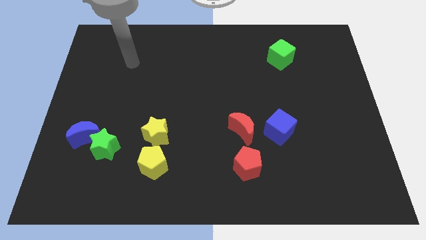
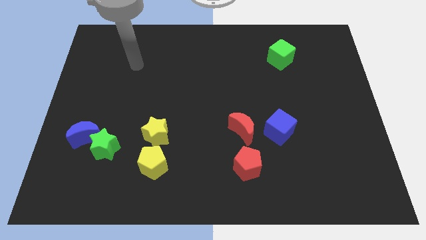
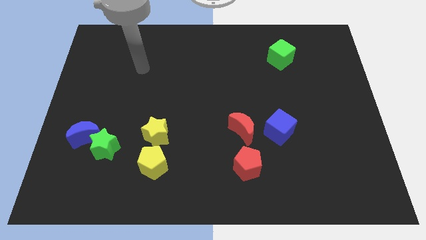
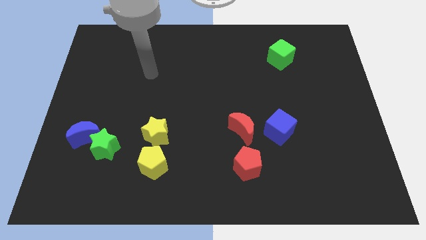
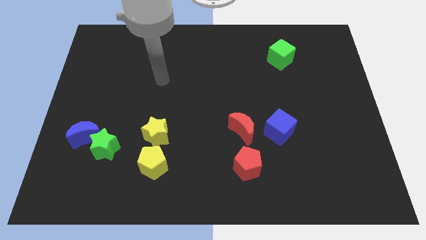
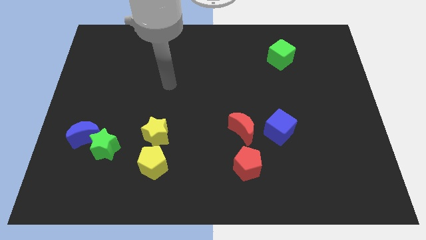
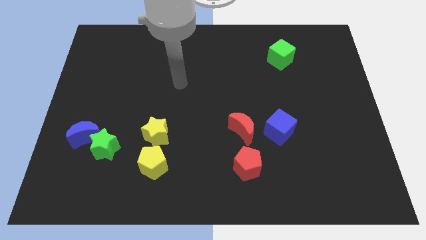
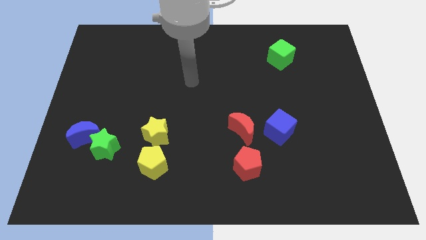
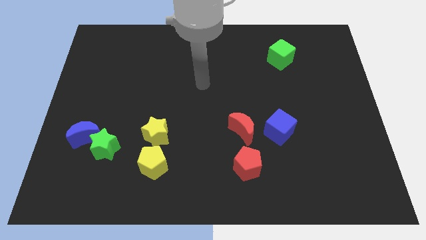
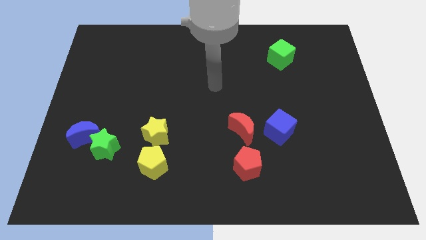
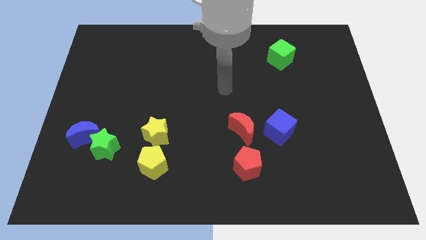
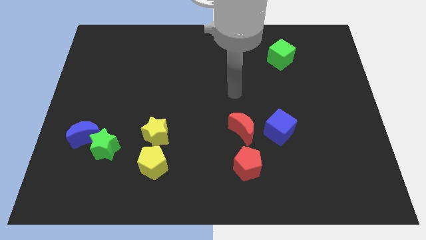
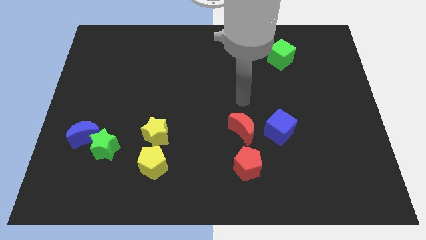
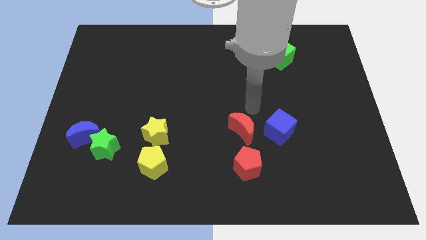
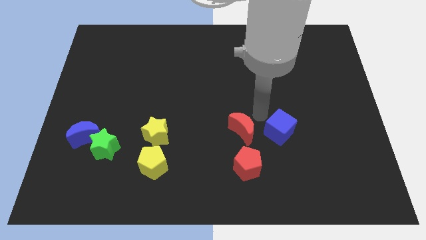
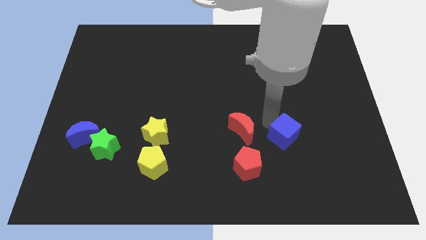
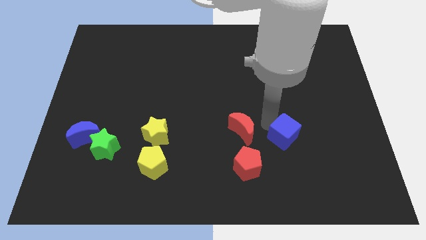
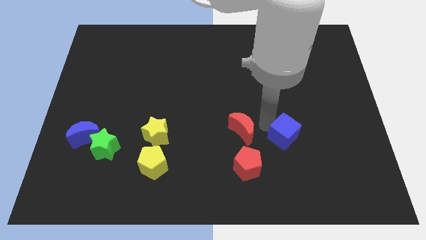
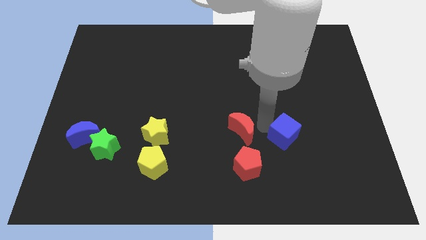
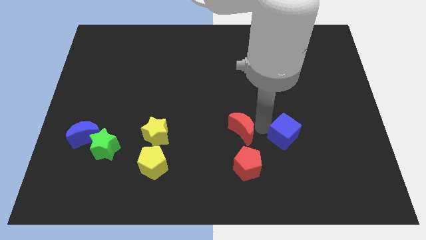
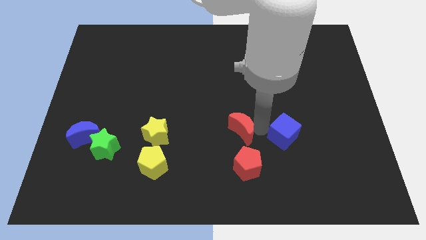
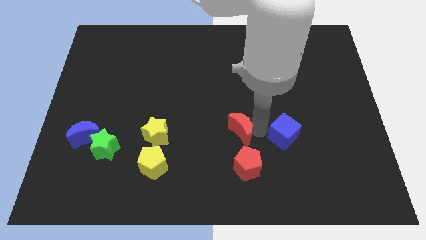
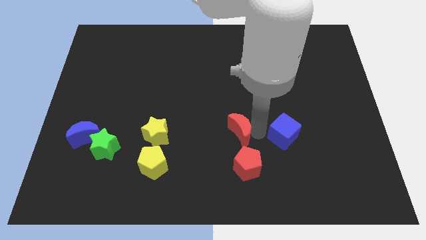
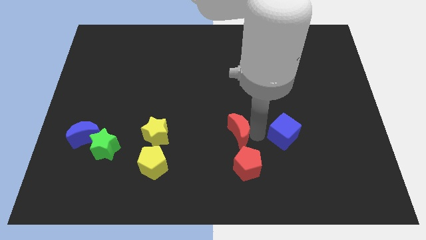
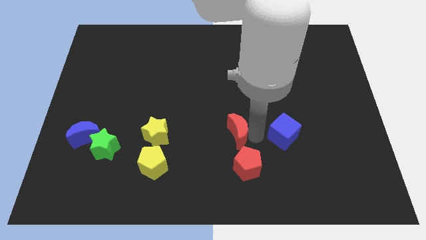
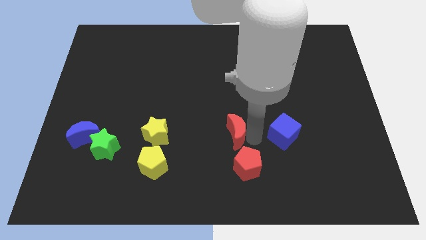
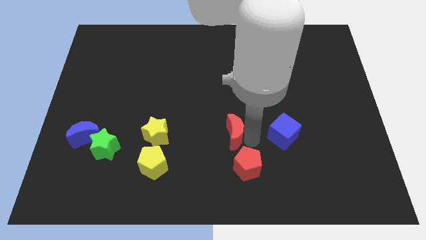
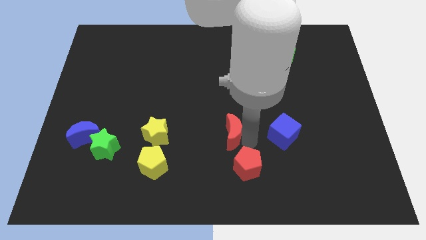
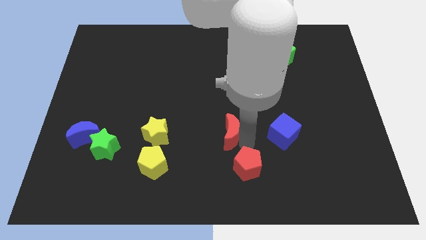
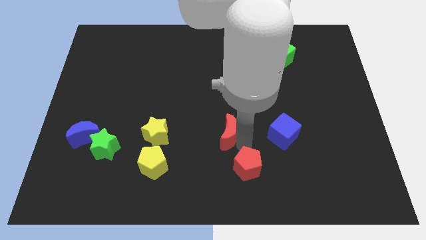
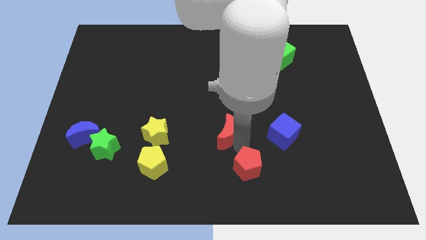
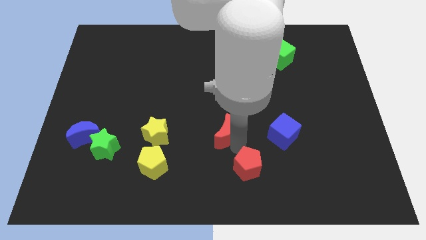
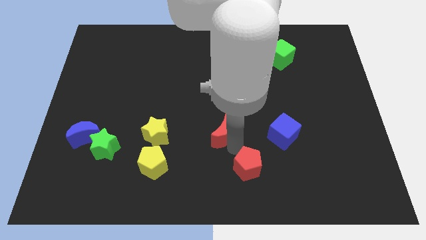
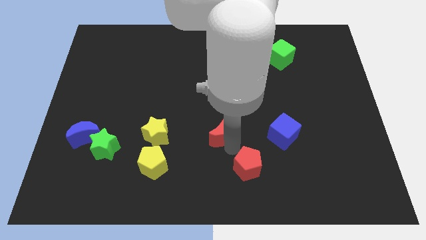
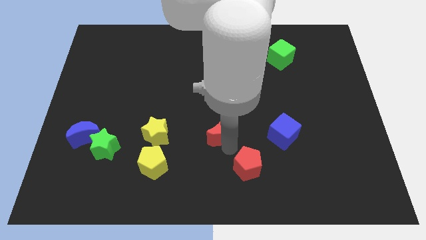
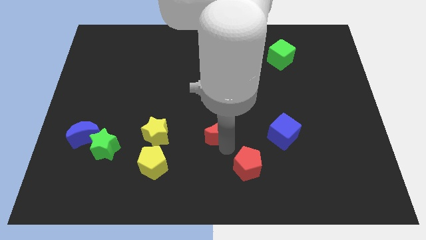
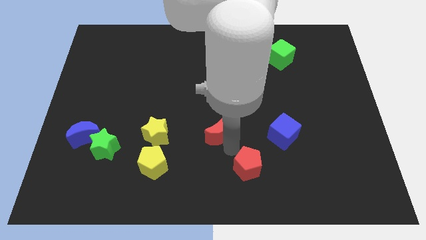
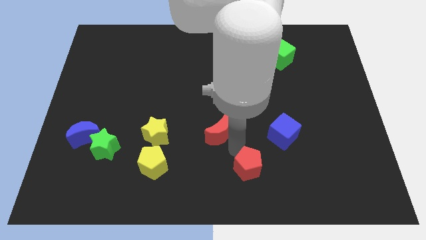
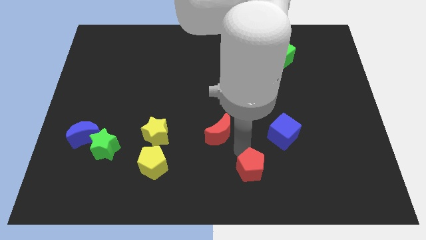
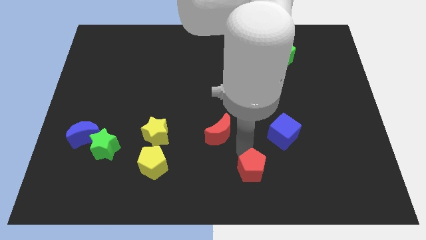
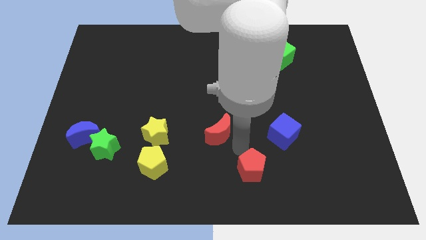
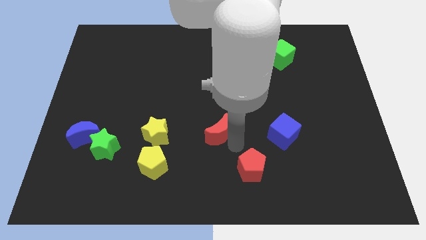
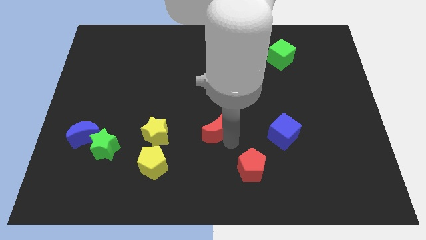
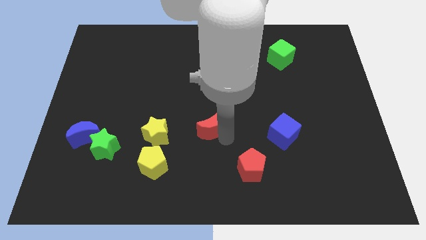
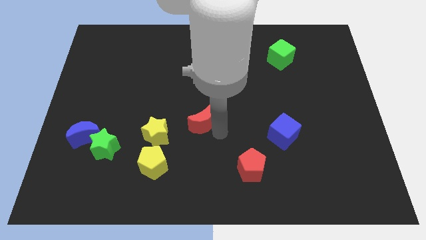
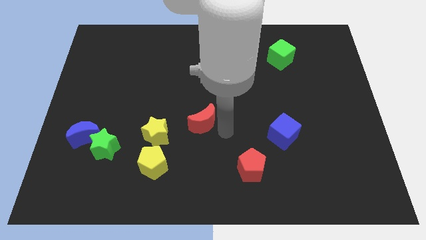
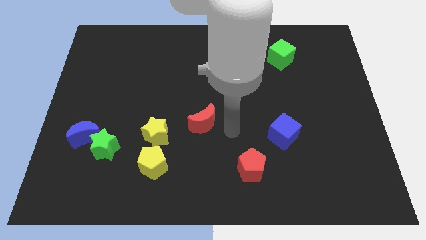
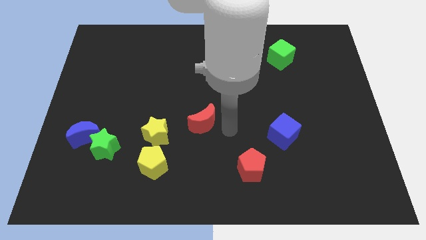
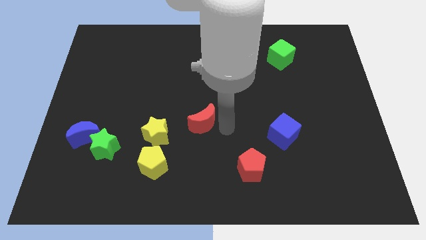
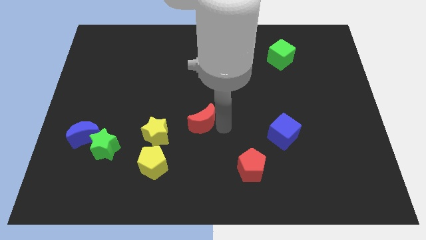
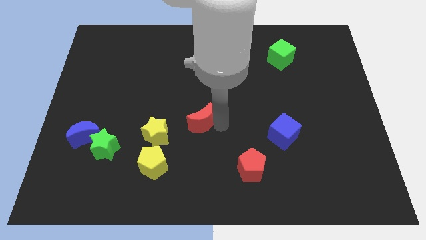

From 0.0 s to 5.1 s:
push the red moon to the top right of the yellow star

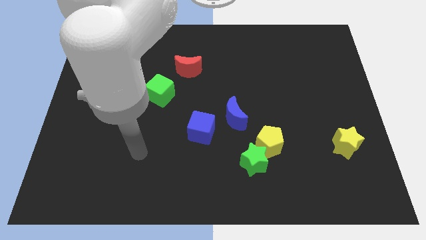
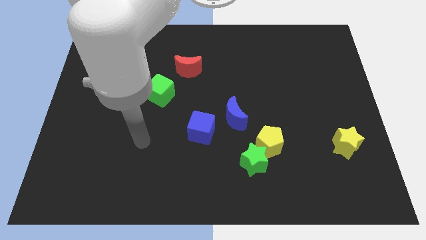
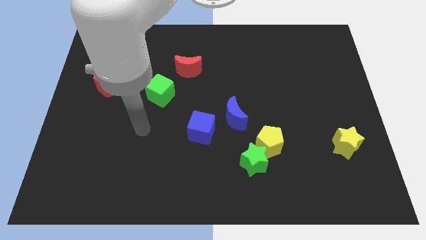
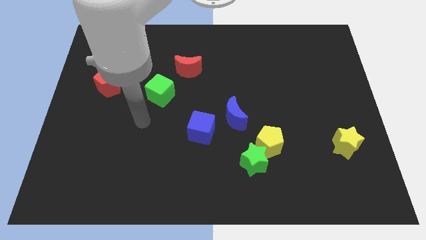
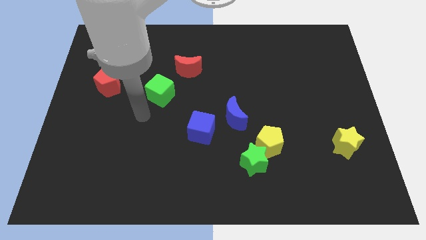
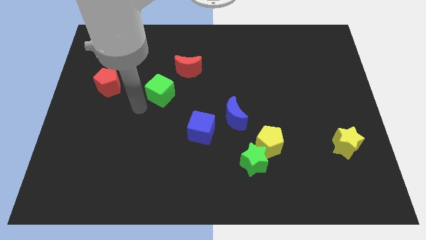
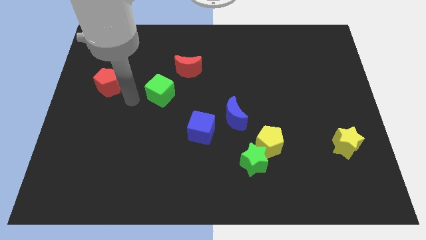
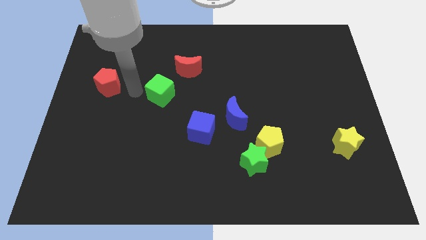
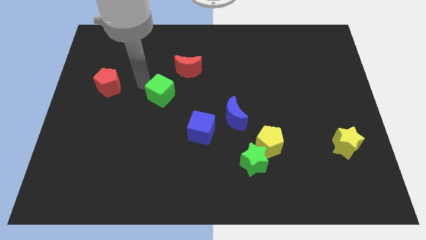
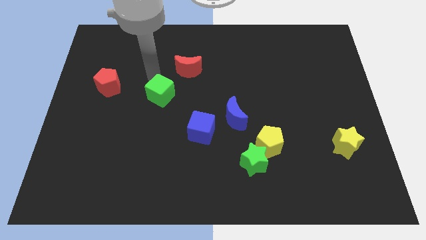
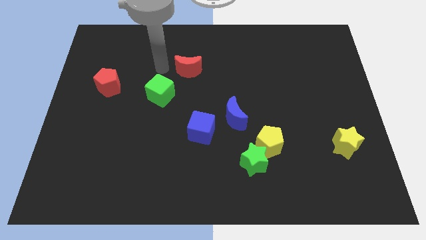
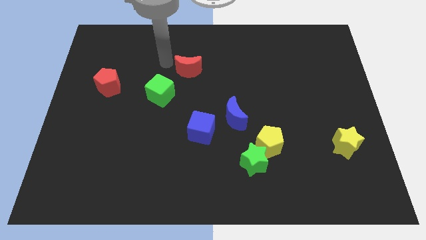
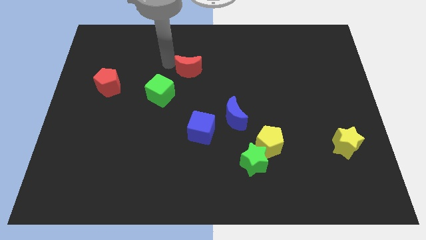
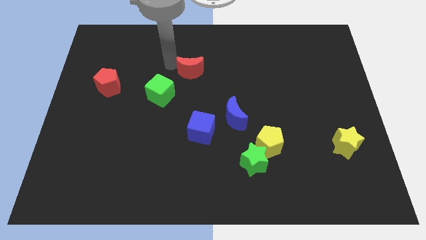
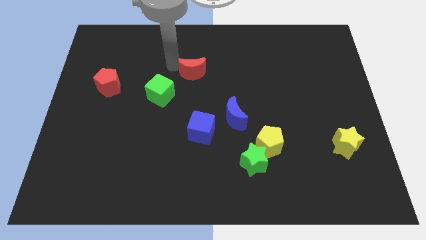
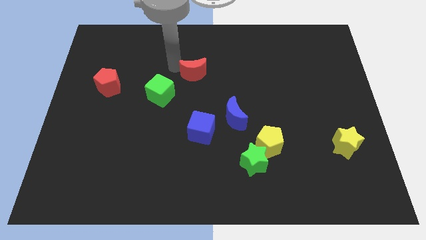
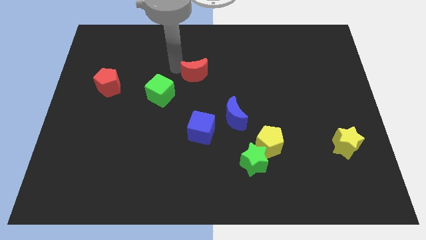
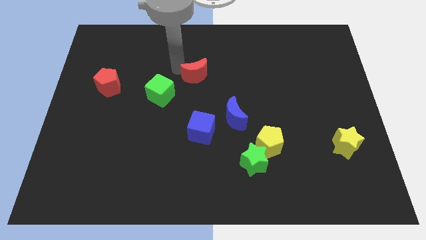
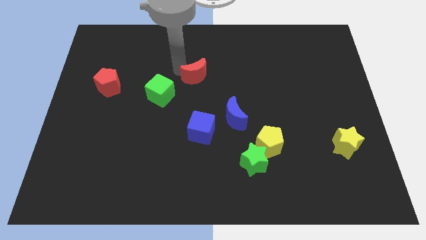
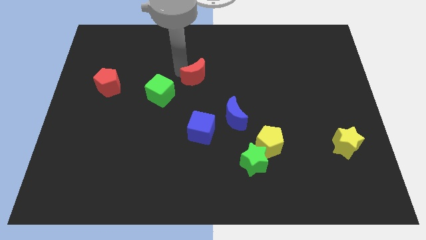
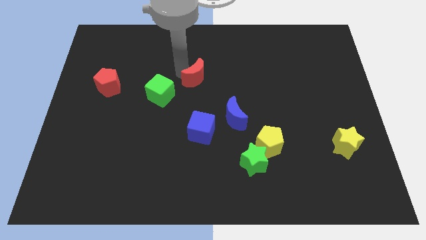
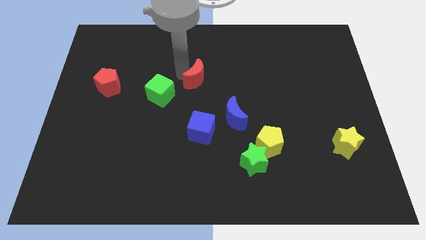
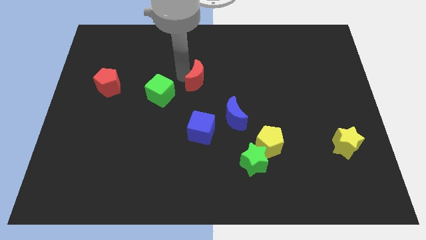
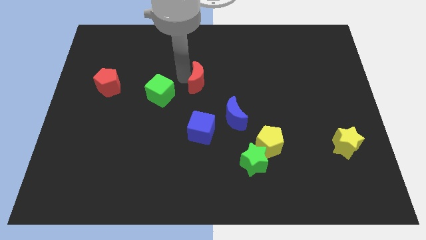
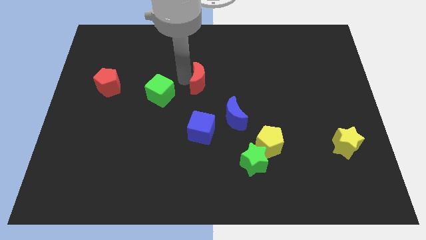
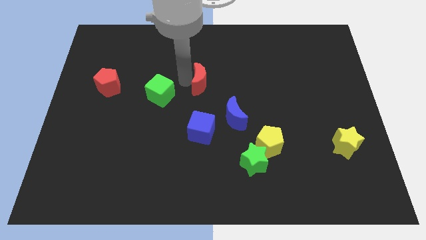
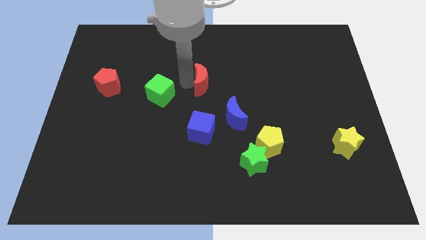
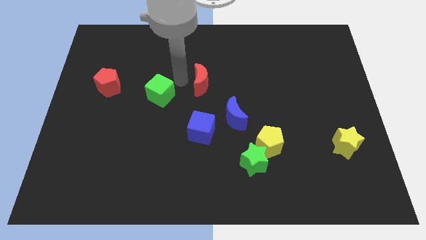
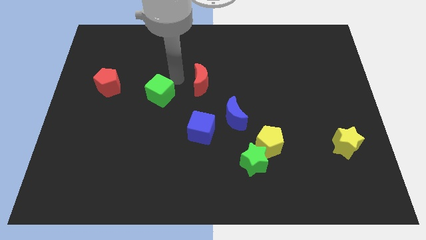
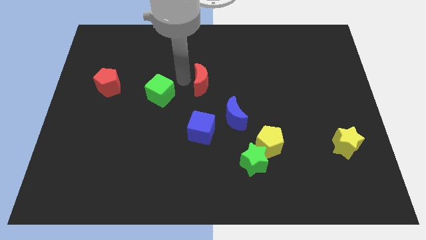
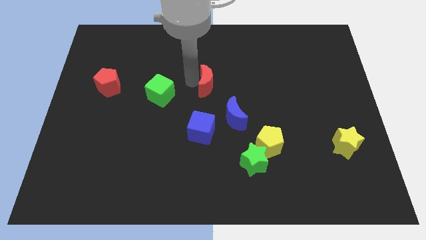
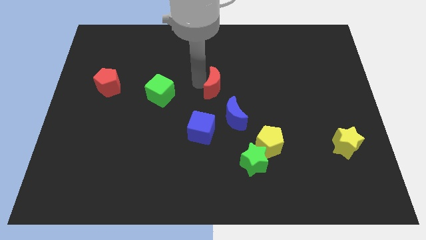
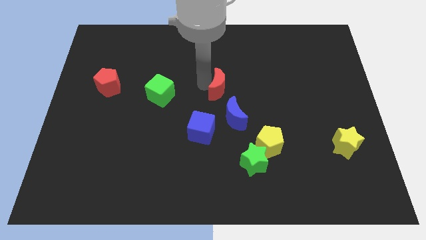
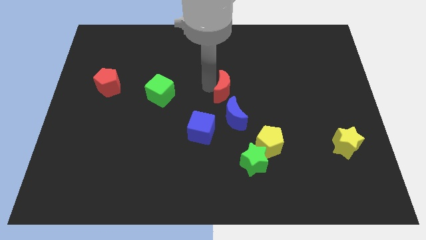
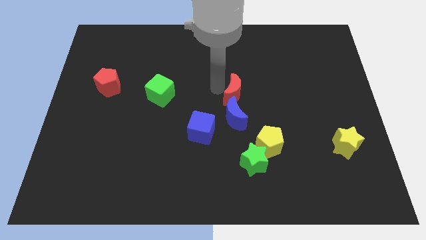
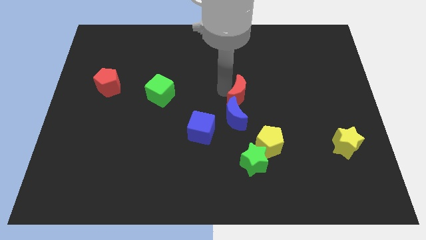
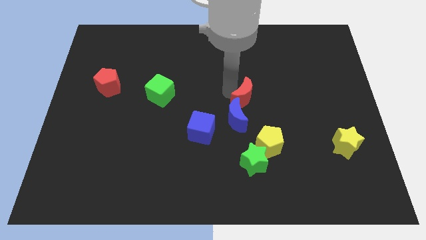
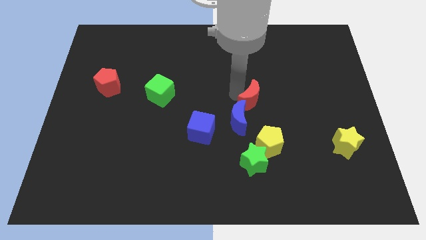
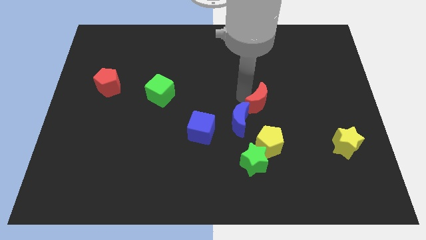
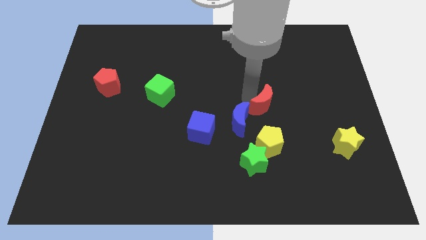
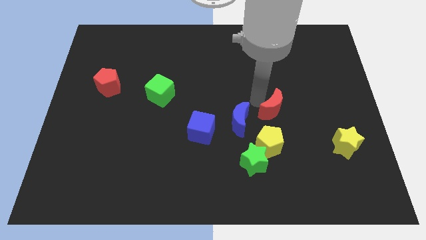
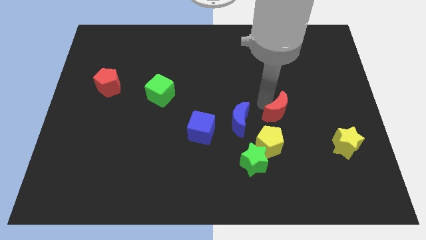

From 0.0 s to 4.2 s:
push the red moon to the top right side of the yellow pentagon
